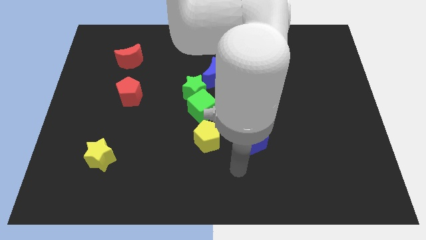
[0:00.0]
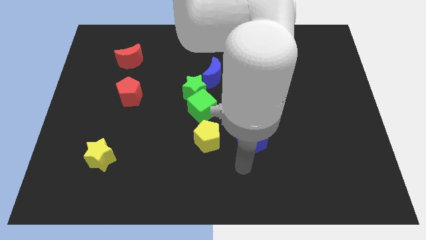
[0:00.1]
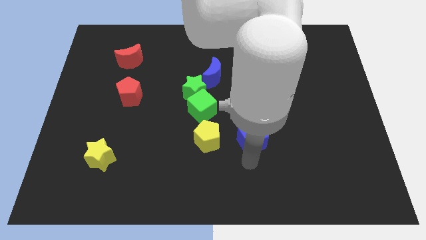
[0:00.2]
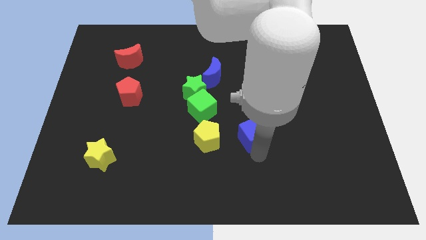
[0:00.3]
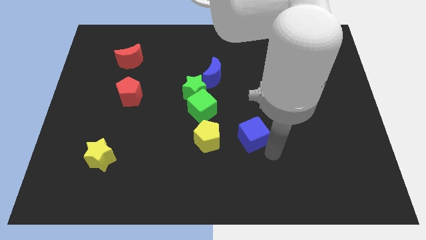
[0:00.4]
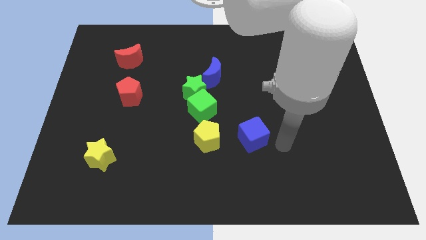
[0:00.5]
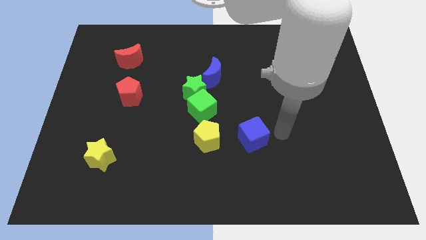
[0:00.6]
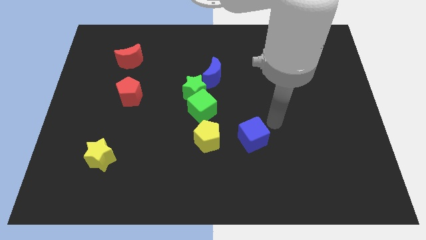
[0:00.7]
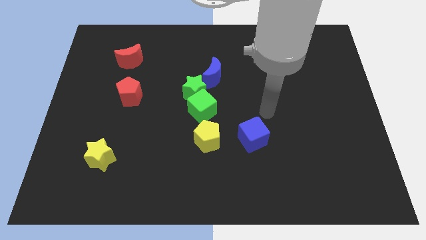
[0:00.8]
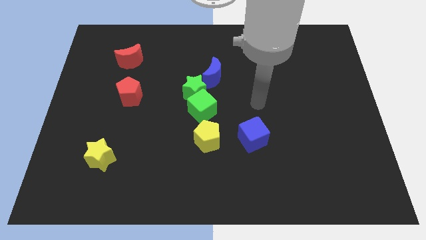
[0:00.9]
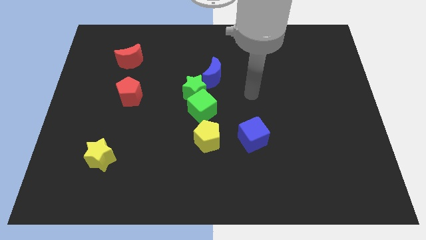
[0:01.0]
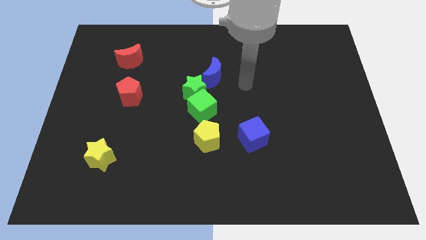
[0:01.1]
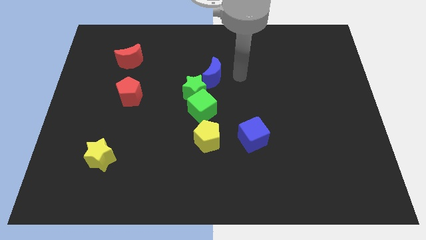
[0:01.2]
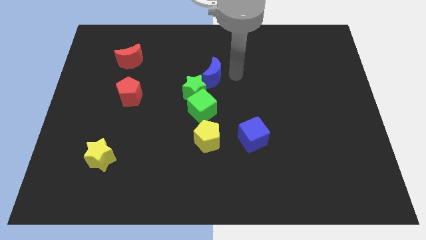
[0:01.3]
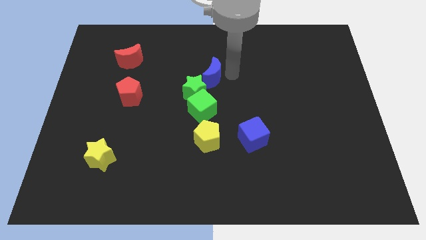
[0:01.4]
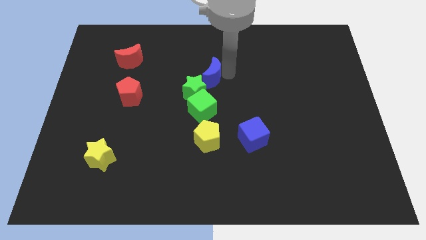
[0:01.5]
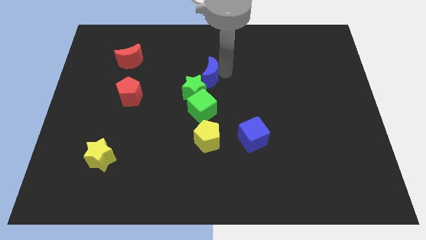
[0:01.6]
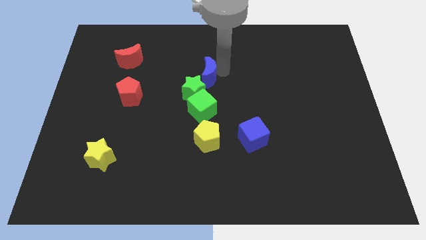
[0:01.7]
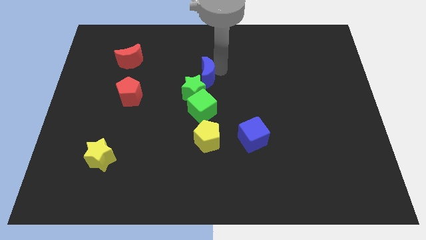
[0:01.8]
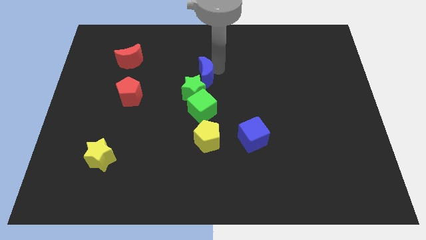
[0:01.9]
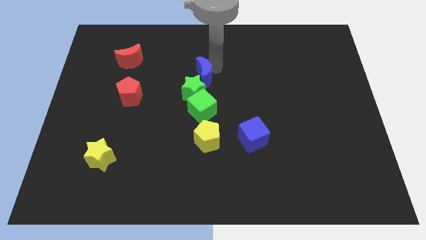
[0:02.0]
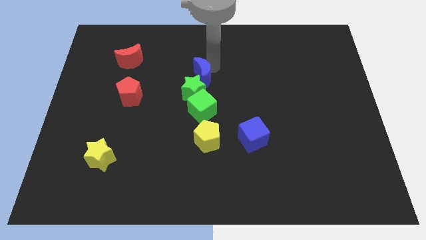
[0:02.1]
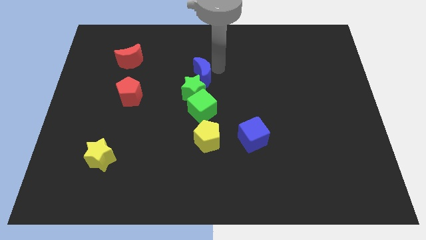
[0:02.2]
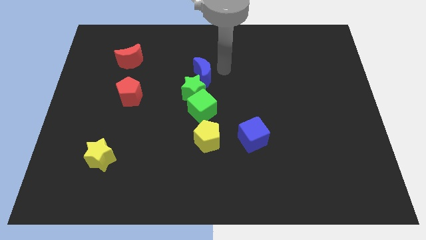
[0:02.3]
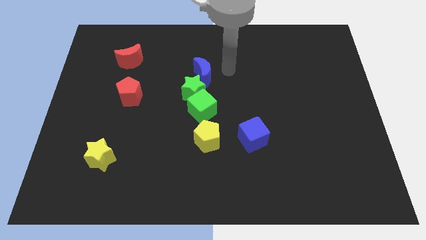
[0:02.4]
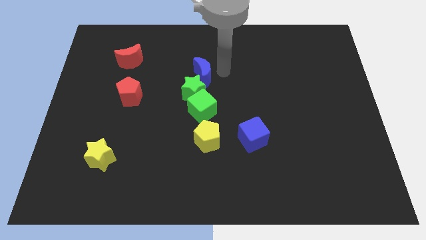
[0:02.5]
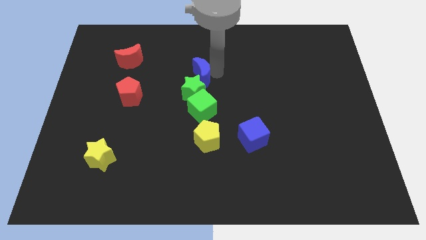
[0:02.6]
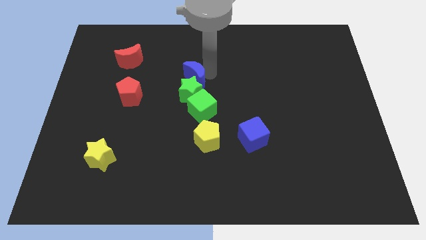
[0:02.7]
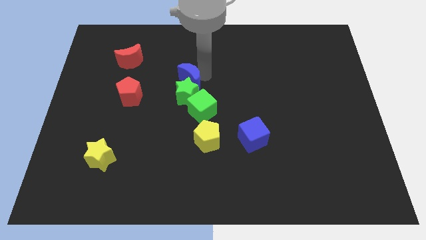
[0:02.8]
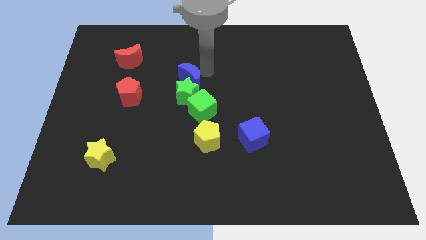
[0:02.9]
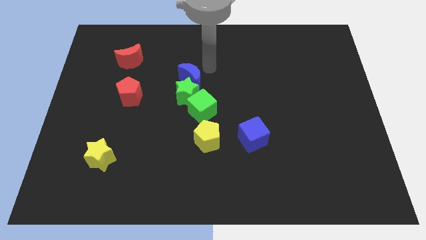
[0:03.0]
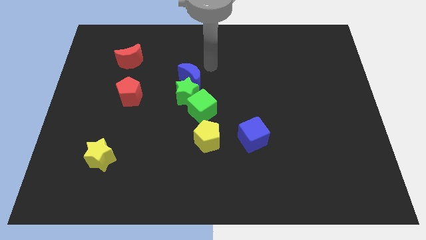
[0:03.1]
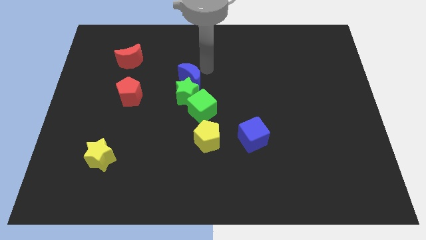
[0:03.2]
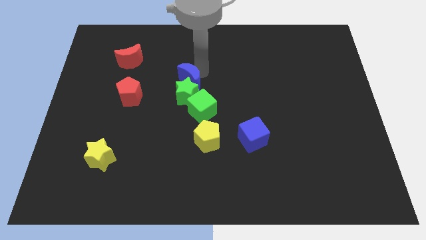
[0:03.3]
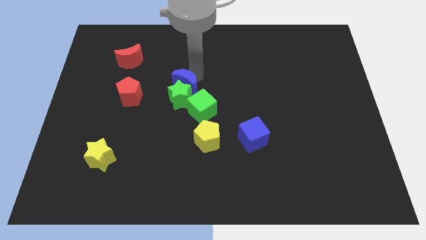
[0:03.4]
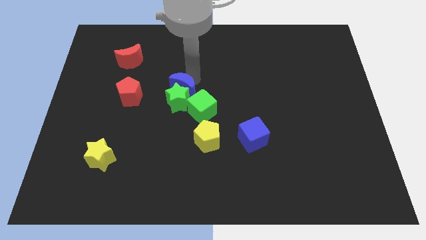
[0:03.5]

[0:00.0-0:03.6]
slightly move the blue moon down and left

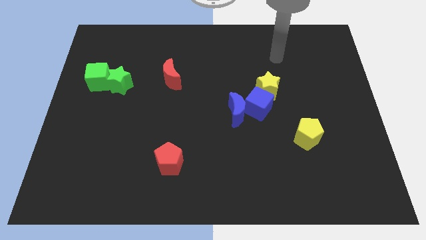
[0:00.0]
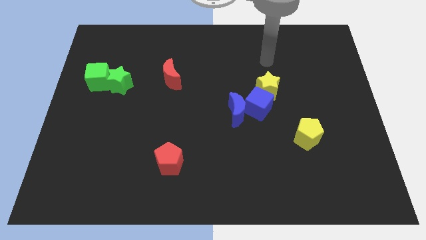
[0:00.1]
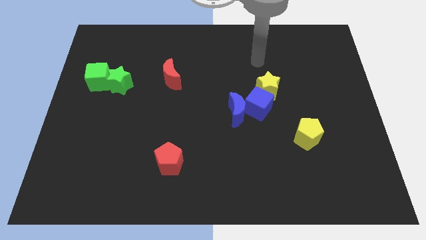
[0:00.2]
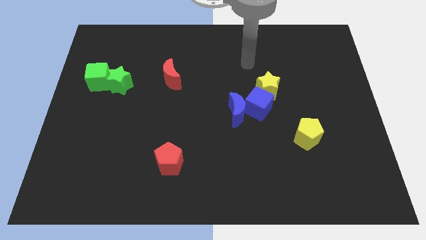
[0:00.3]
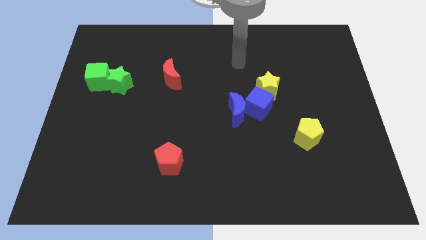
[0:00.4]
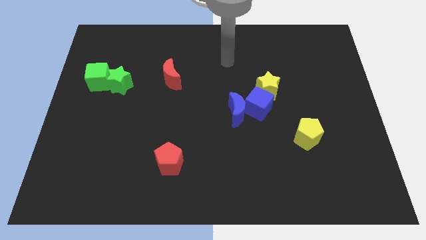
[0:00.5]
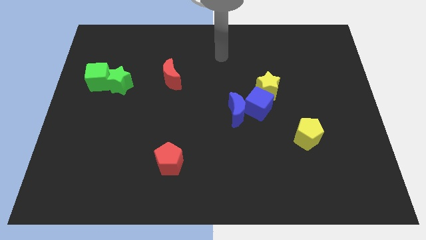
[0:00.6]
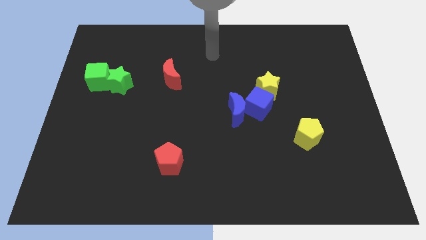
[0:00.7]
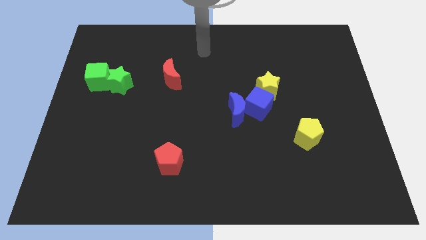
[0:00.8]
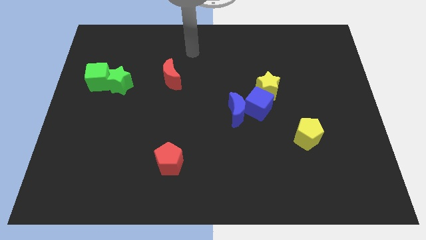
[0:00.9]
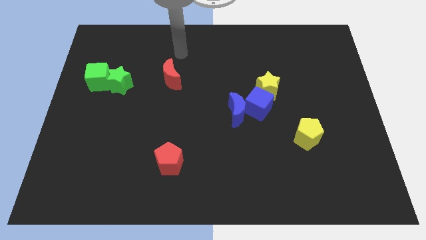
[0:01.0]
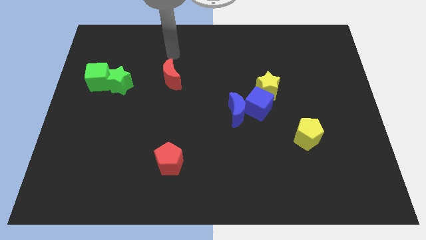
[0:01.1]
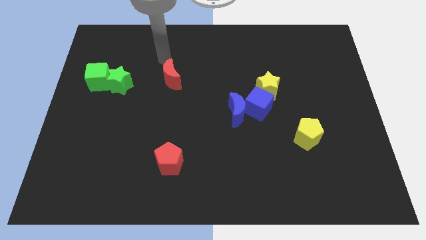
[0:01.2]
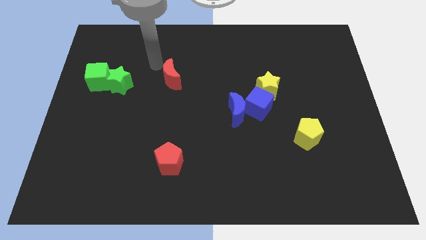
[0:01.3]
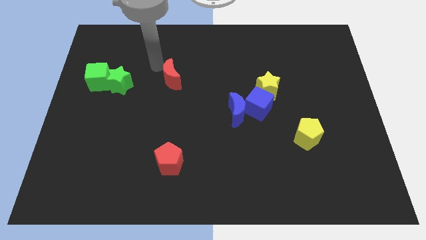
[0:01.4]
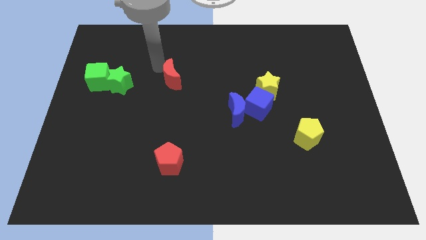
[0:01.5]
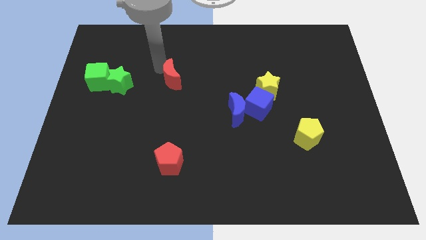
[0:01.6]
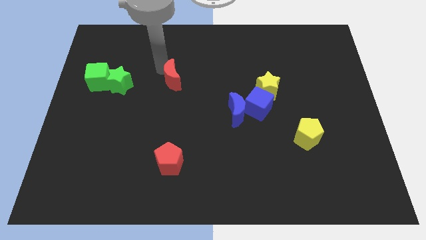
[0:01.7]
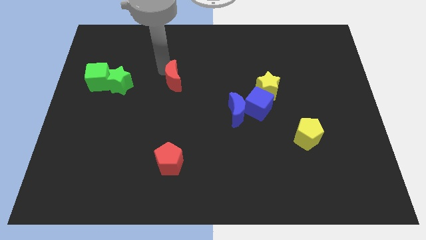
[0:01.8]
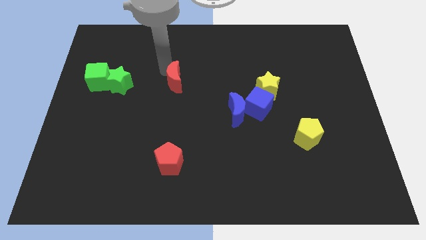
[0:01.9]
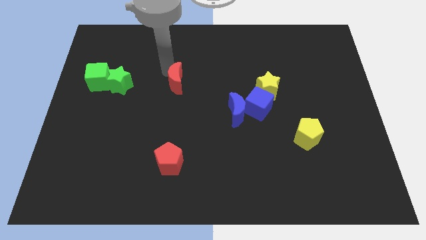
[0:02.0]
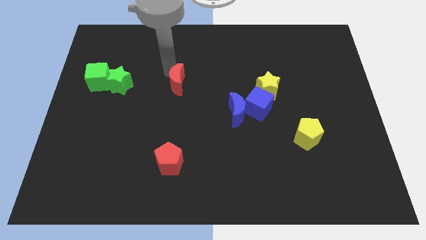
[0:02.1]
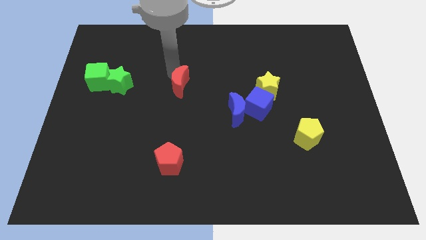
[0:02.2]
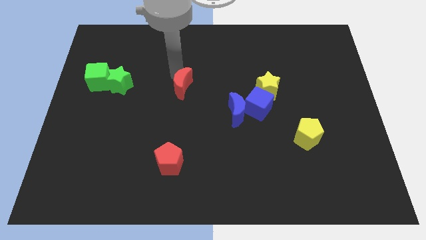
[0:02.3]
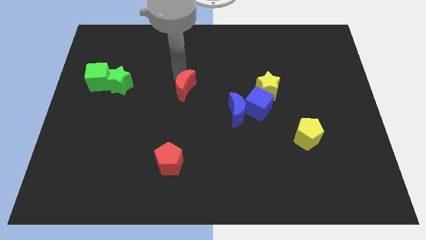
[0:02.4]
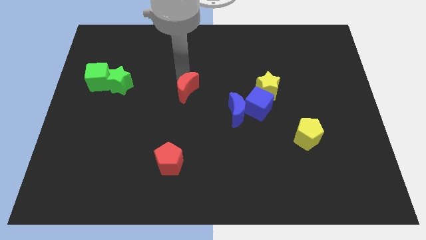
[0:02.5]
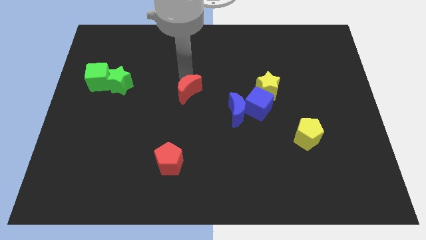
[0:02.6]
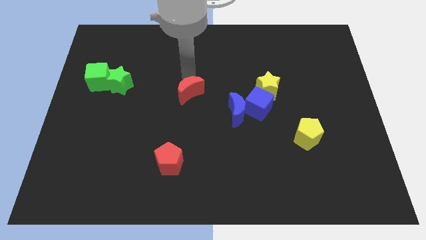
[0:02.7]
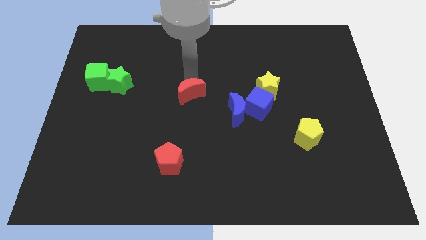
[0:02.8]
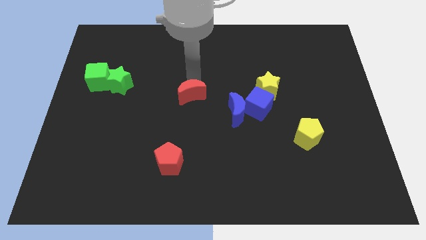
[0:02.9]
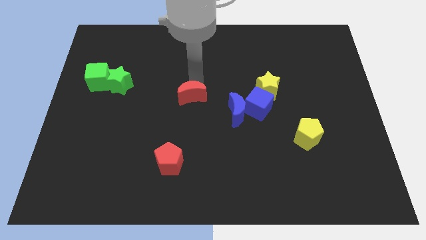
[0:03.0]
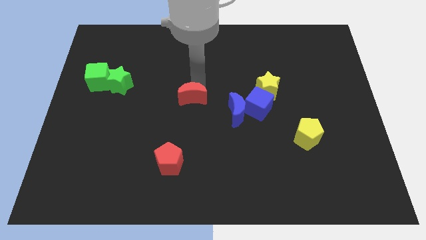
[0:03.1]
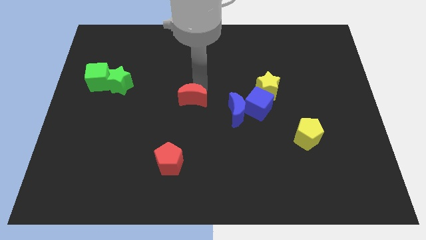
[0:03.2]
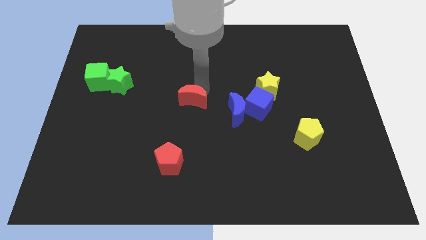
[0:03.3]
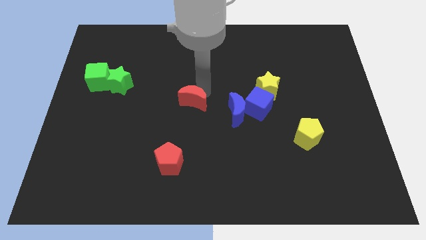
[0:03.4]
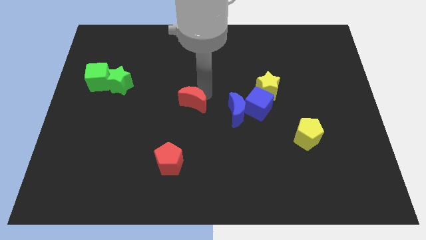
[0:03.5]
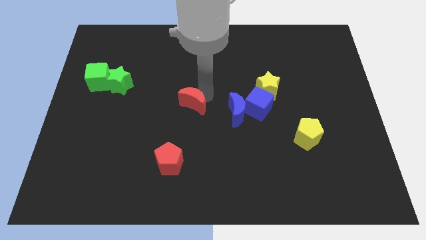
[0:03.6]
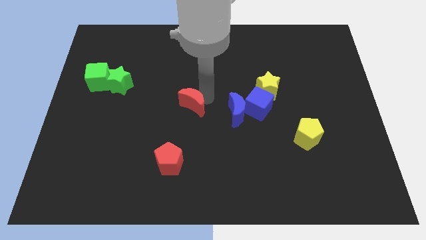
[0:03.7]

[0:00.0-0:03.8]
slightly move the red moon downwards

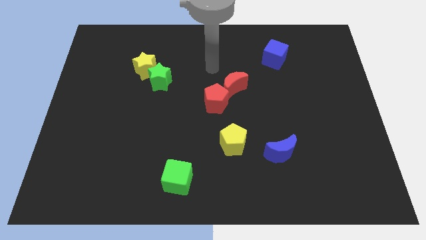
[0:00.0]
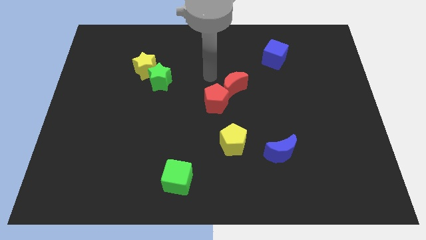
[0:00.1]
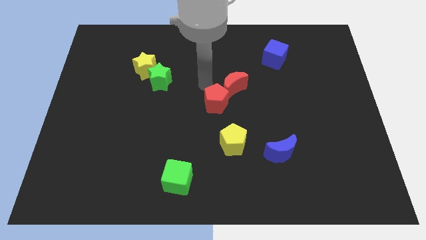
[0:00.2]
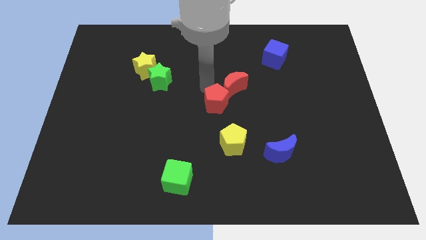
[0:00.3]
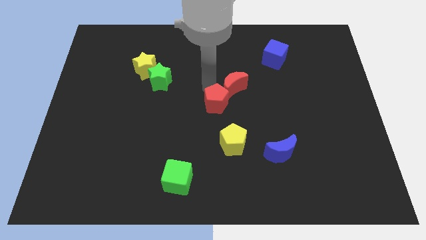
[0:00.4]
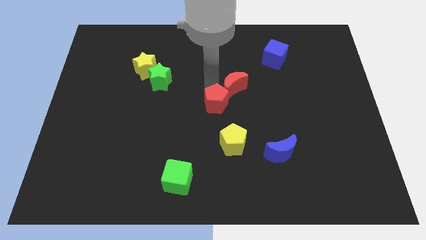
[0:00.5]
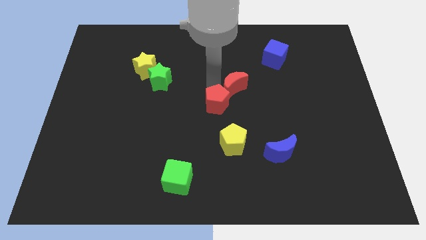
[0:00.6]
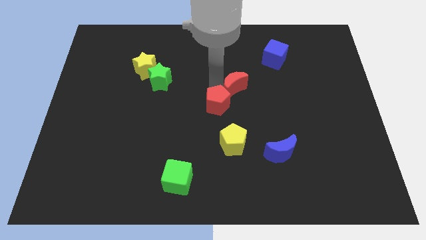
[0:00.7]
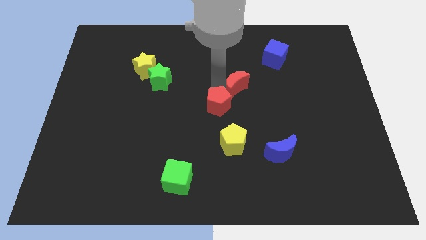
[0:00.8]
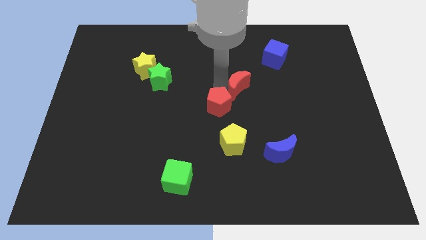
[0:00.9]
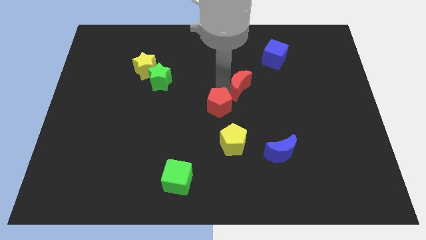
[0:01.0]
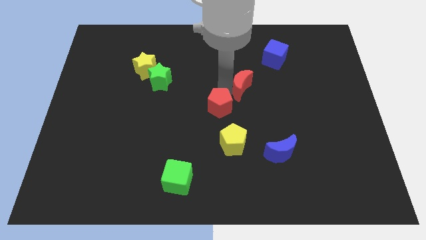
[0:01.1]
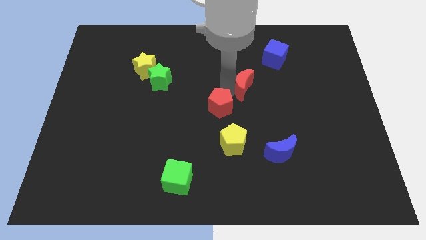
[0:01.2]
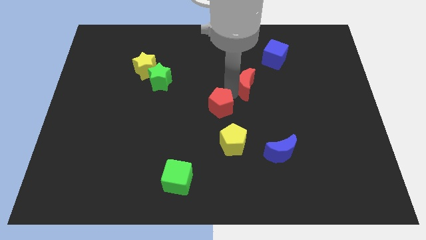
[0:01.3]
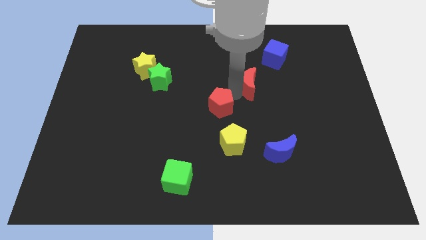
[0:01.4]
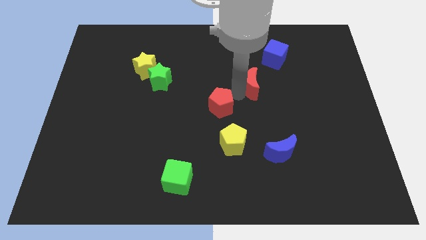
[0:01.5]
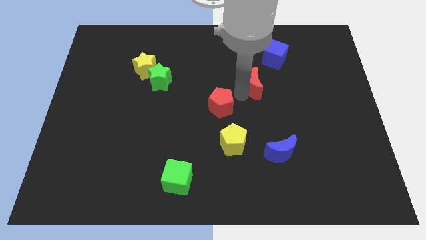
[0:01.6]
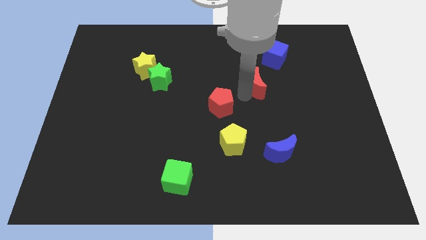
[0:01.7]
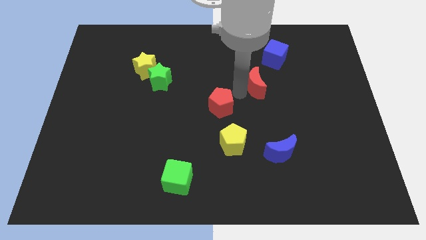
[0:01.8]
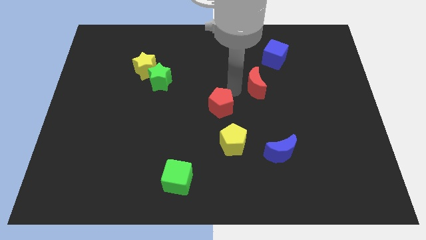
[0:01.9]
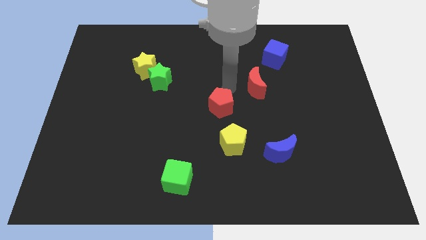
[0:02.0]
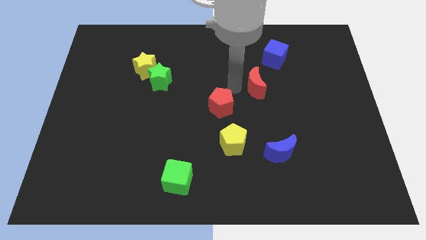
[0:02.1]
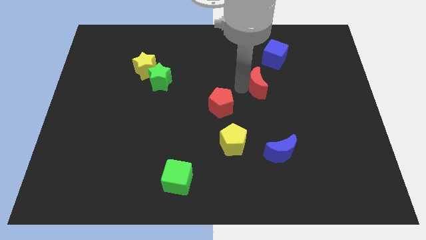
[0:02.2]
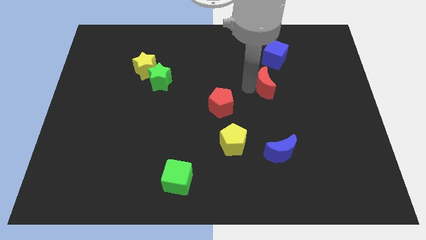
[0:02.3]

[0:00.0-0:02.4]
slide the red moon right a little
